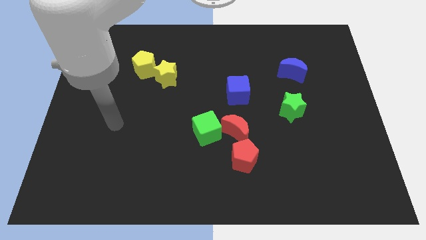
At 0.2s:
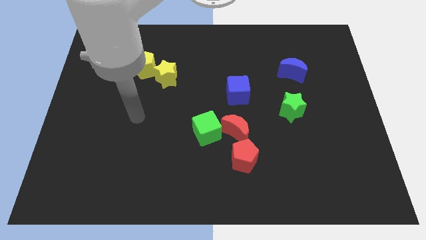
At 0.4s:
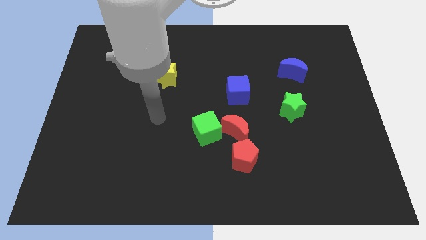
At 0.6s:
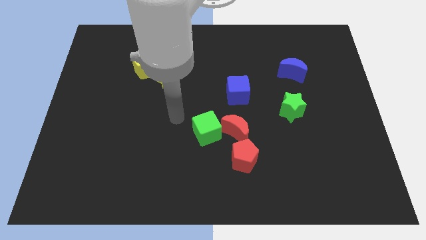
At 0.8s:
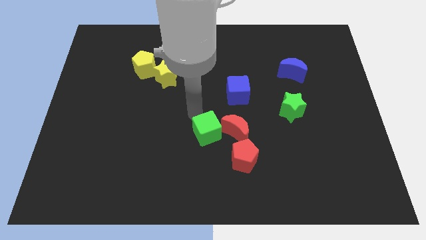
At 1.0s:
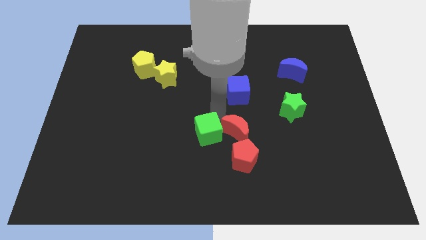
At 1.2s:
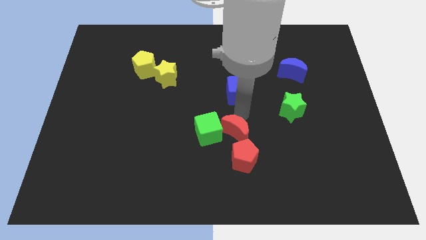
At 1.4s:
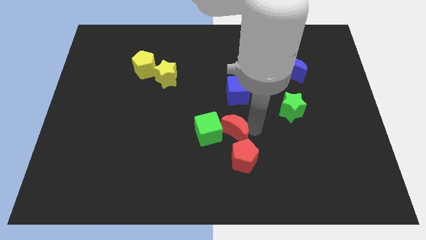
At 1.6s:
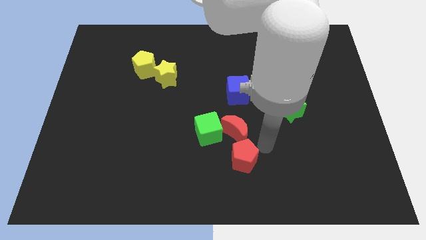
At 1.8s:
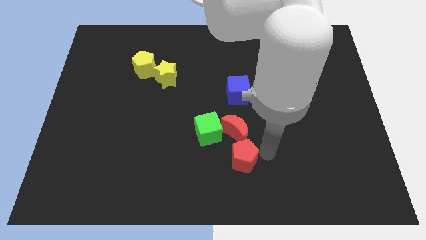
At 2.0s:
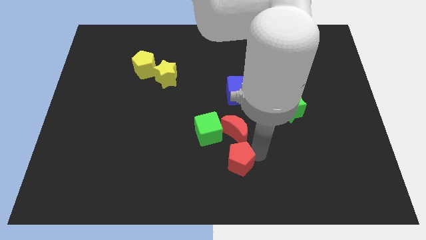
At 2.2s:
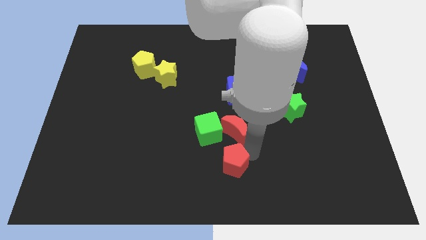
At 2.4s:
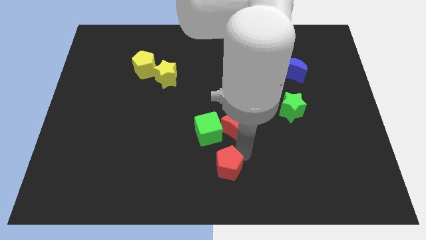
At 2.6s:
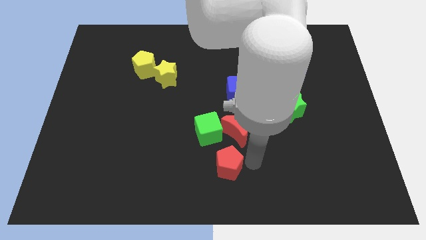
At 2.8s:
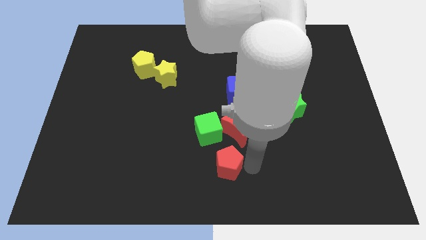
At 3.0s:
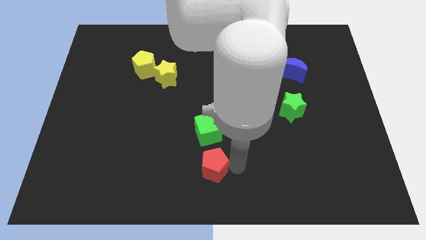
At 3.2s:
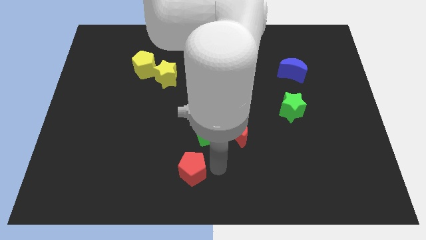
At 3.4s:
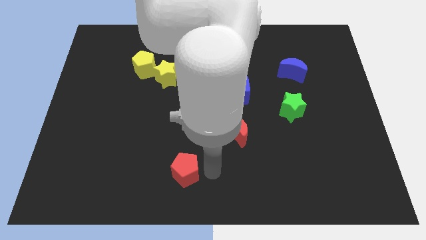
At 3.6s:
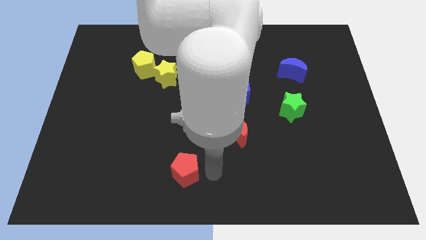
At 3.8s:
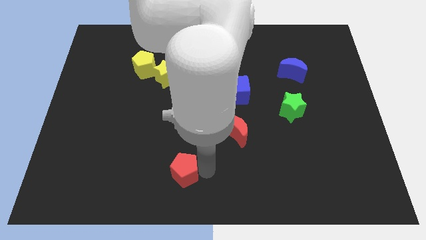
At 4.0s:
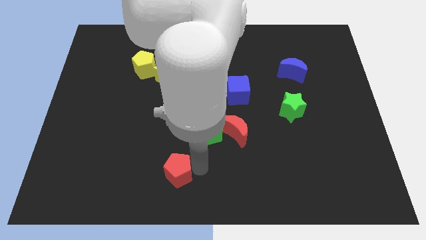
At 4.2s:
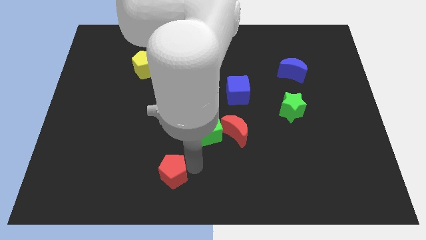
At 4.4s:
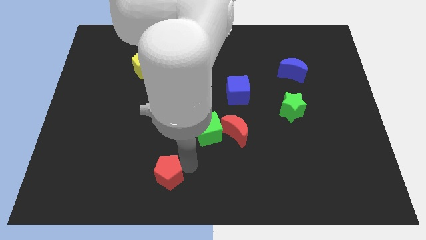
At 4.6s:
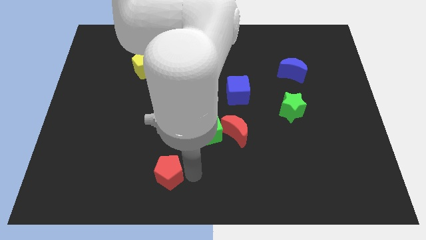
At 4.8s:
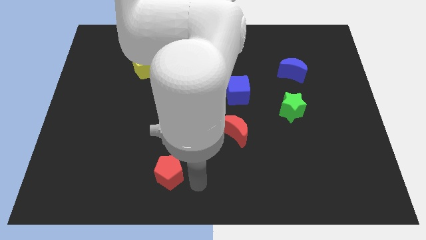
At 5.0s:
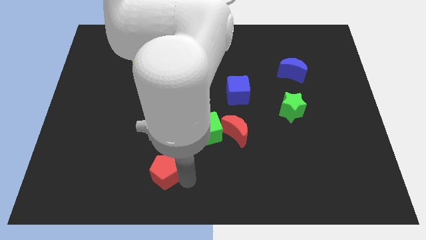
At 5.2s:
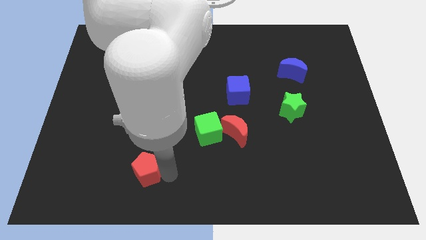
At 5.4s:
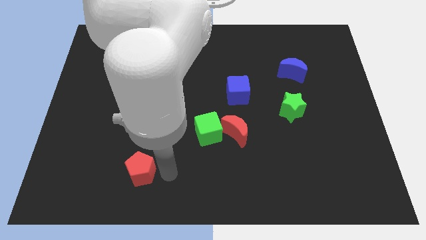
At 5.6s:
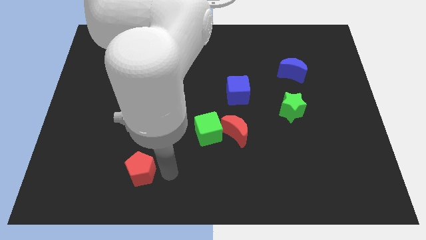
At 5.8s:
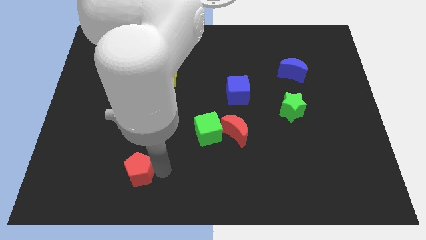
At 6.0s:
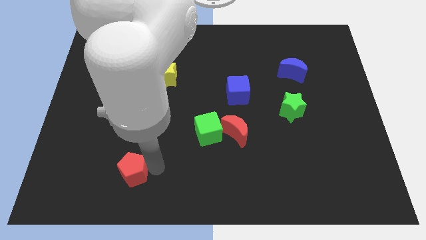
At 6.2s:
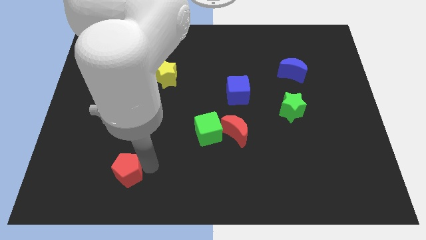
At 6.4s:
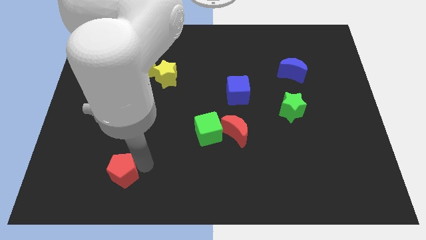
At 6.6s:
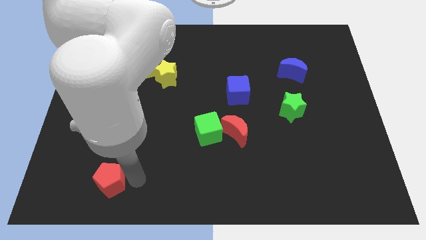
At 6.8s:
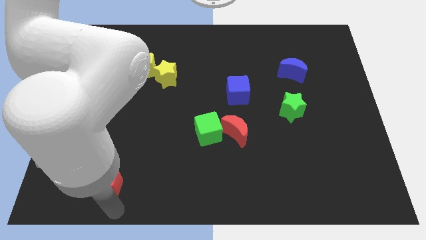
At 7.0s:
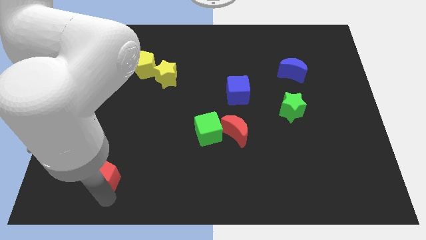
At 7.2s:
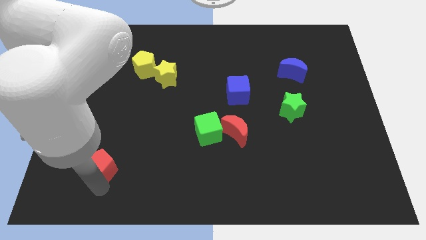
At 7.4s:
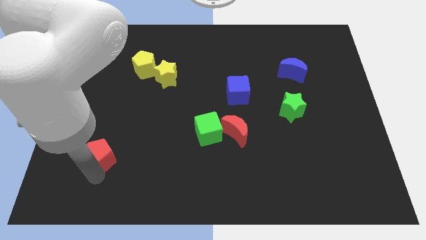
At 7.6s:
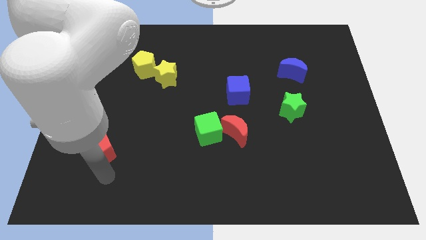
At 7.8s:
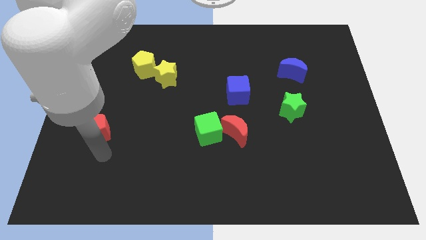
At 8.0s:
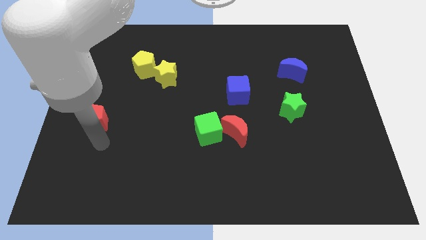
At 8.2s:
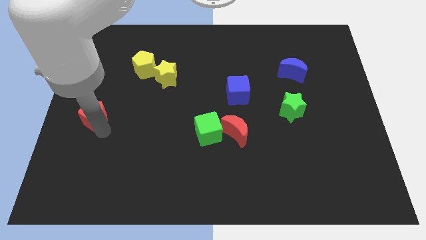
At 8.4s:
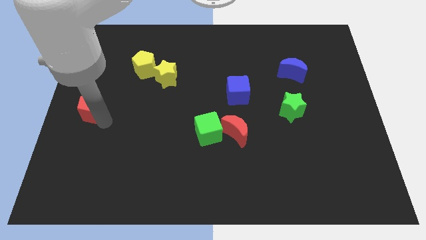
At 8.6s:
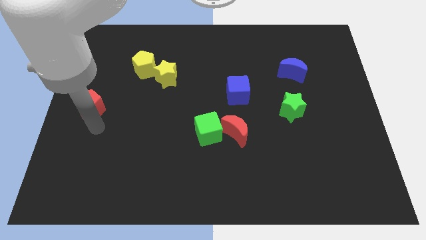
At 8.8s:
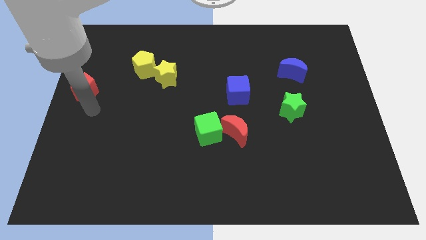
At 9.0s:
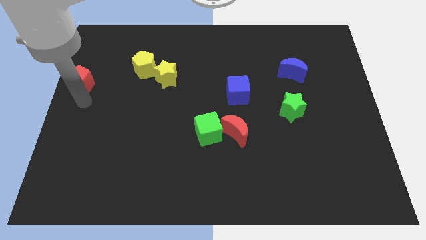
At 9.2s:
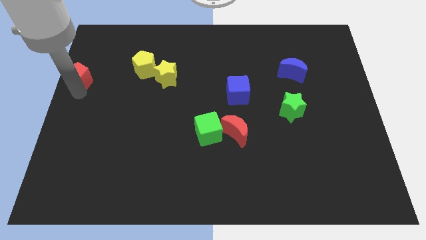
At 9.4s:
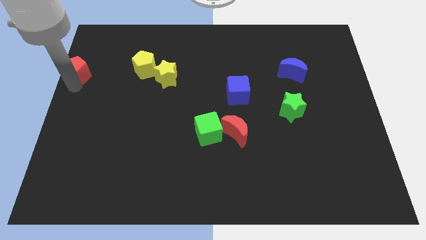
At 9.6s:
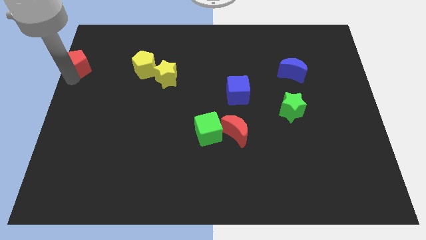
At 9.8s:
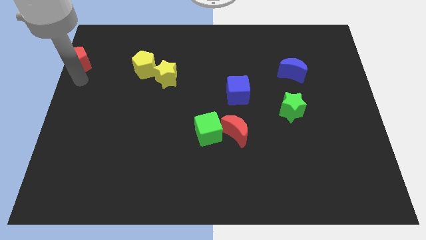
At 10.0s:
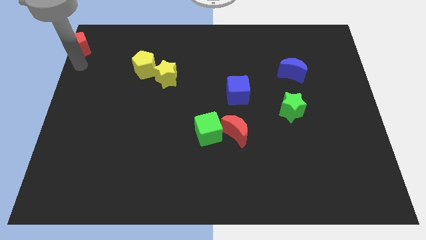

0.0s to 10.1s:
push the red pentagon to the top left
